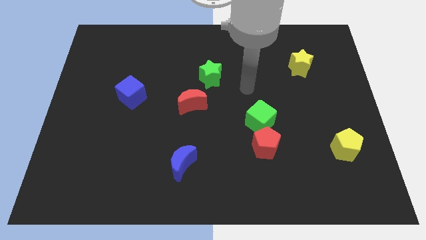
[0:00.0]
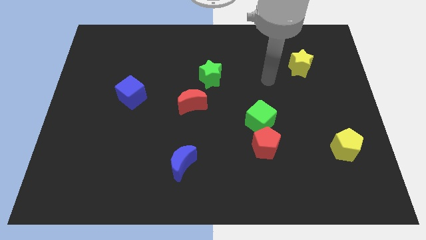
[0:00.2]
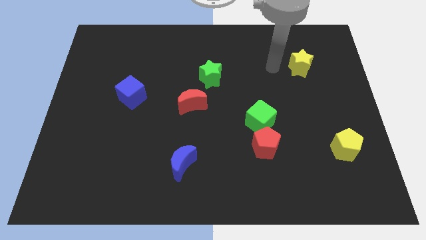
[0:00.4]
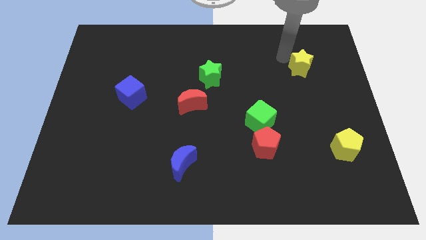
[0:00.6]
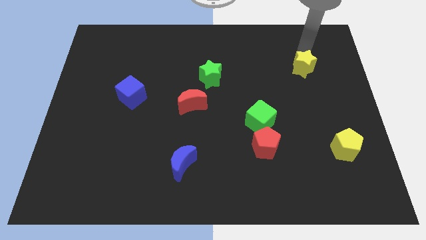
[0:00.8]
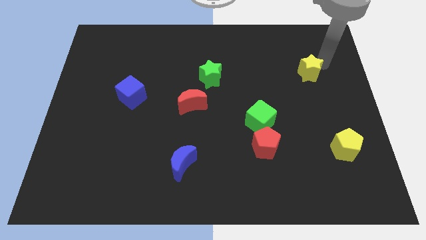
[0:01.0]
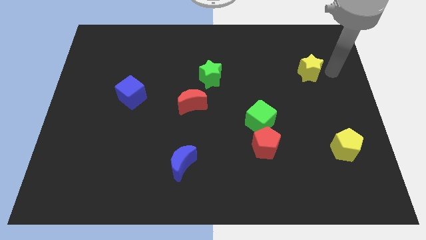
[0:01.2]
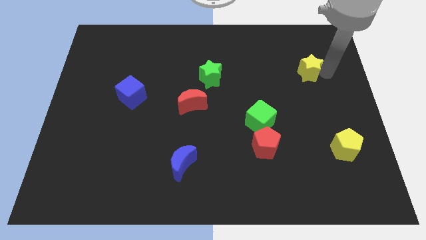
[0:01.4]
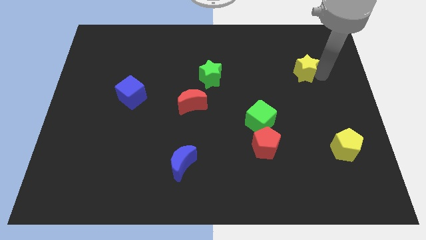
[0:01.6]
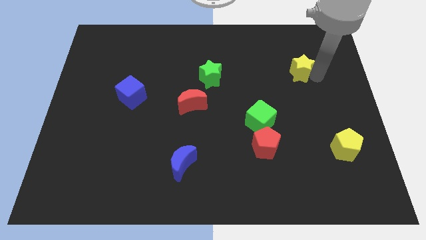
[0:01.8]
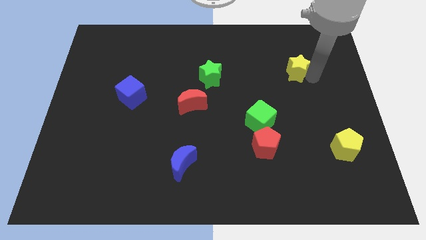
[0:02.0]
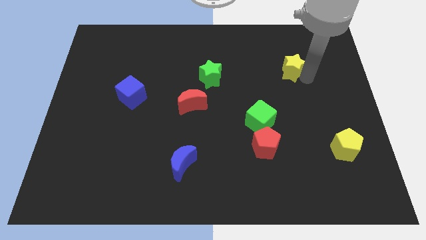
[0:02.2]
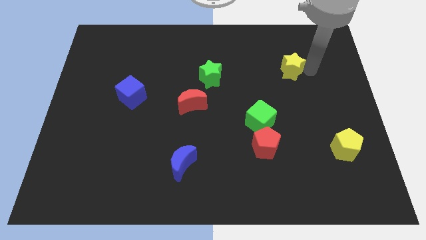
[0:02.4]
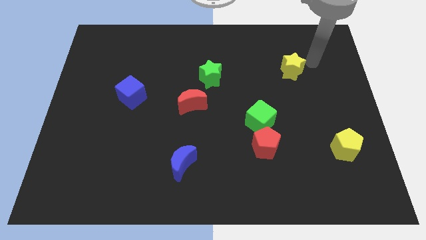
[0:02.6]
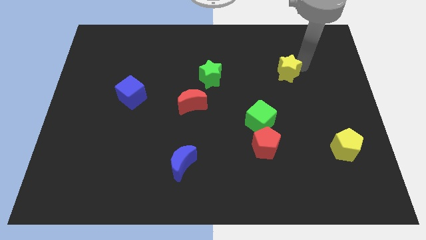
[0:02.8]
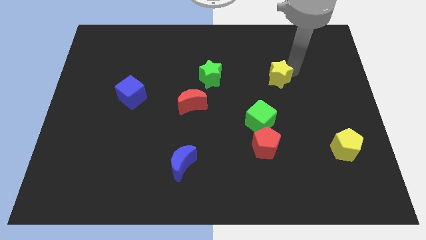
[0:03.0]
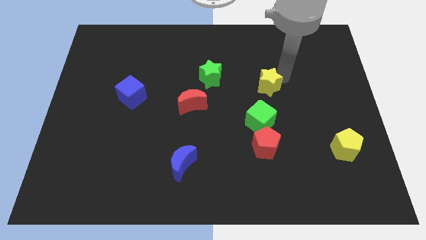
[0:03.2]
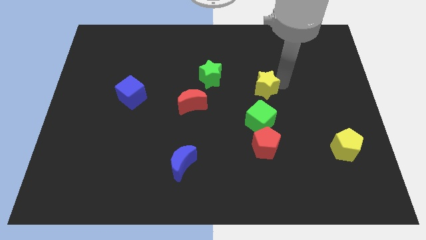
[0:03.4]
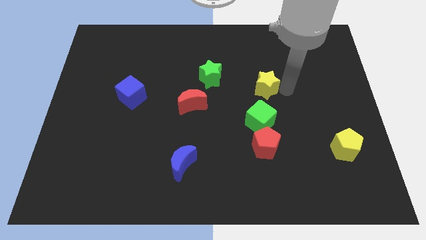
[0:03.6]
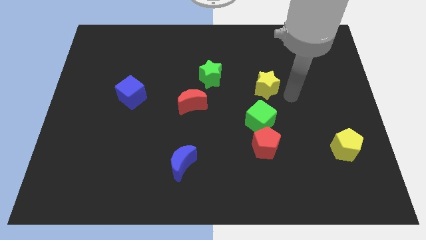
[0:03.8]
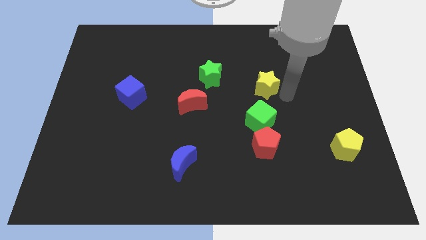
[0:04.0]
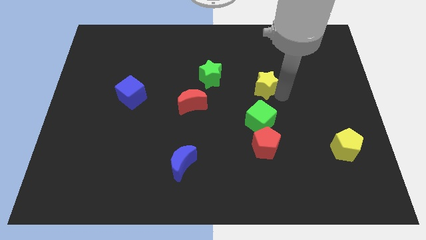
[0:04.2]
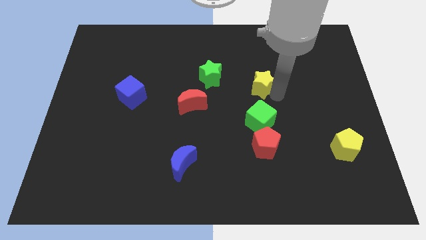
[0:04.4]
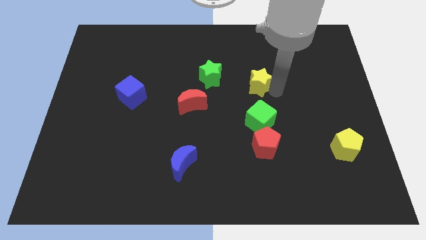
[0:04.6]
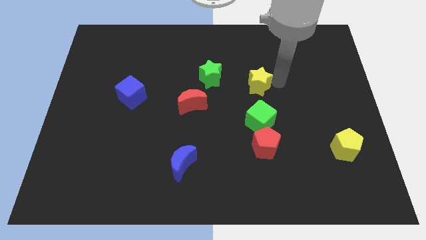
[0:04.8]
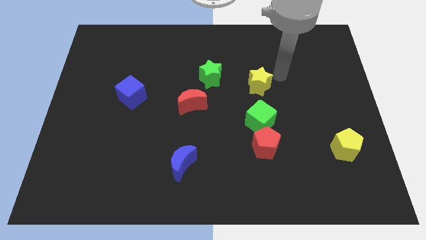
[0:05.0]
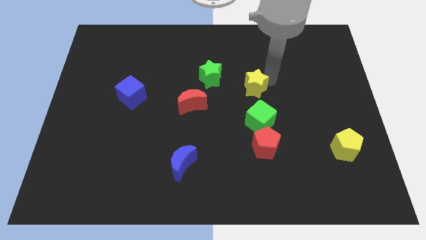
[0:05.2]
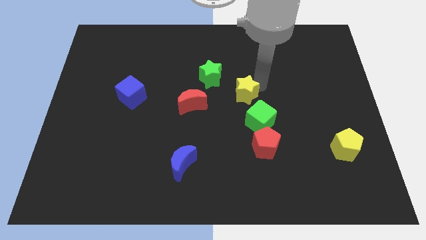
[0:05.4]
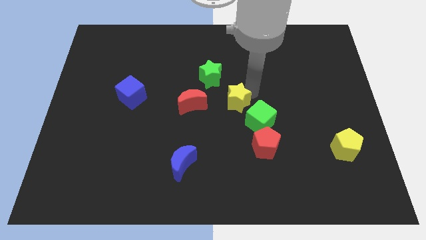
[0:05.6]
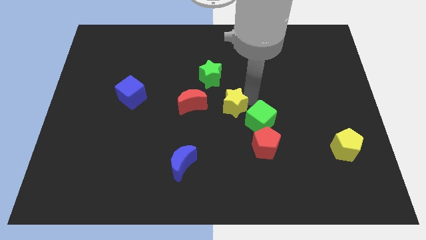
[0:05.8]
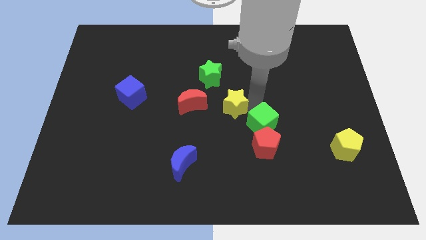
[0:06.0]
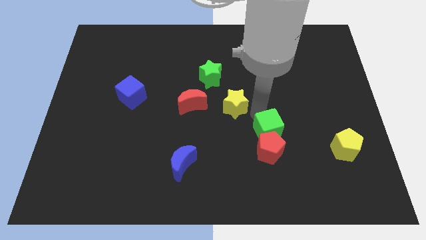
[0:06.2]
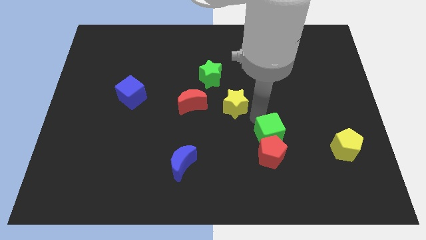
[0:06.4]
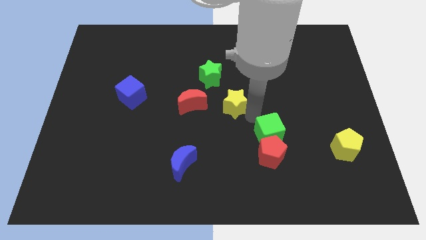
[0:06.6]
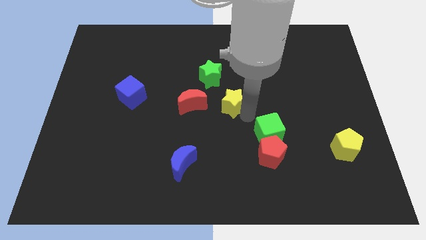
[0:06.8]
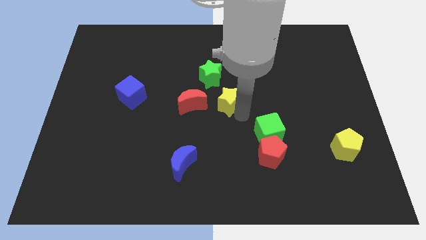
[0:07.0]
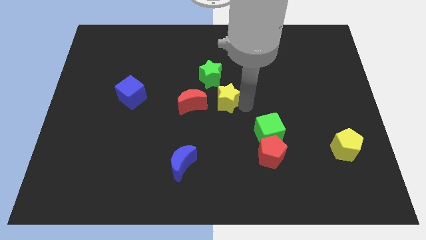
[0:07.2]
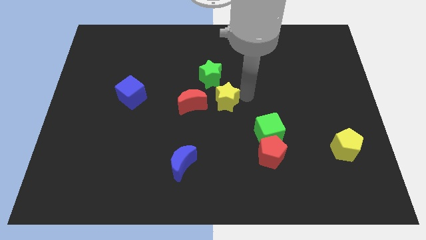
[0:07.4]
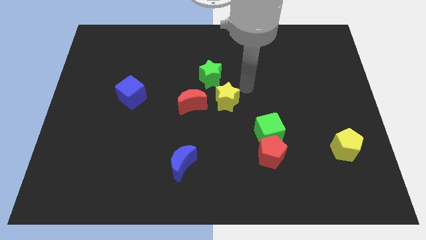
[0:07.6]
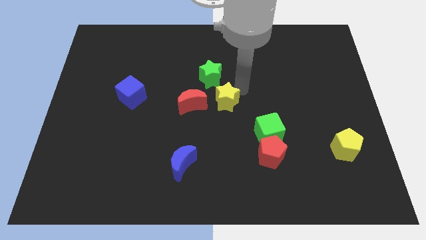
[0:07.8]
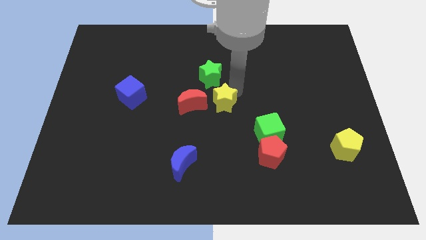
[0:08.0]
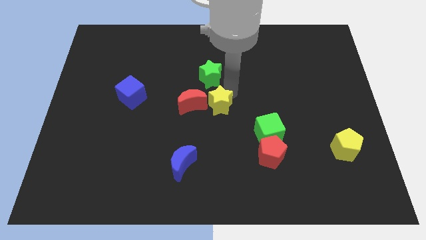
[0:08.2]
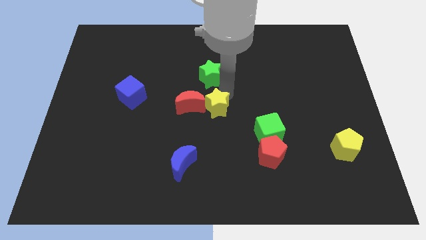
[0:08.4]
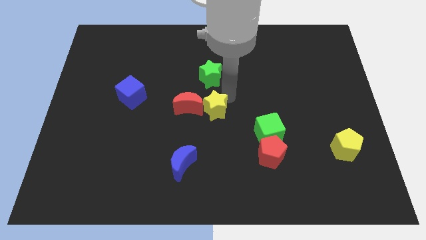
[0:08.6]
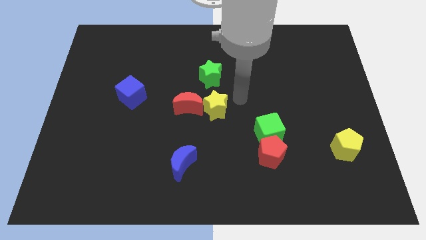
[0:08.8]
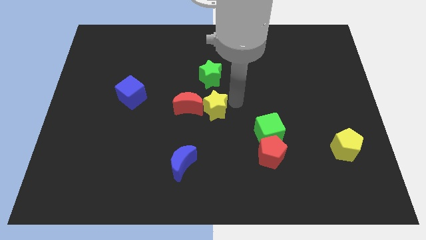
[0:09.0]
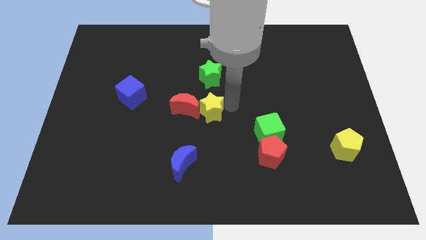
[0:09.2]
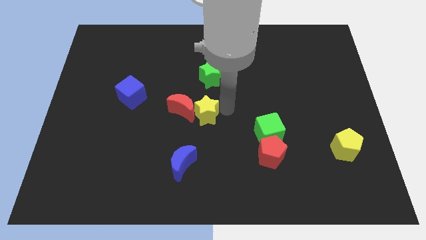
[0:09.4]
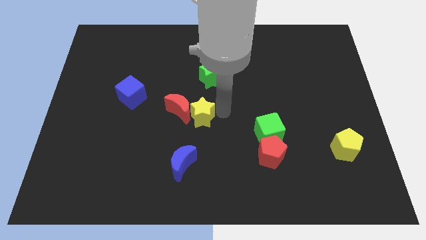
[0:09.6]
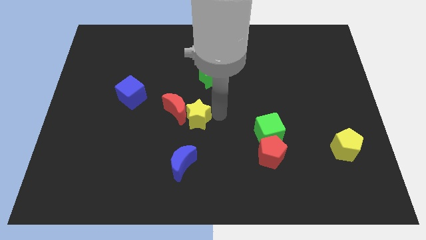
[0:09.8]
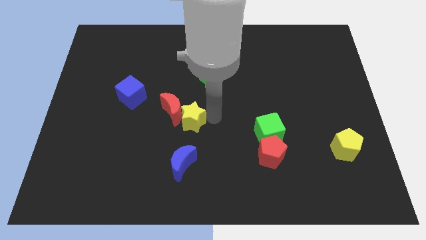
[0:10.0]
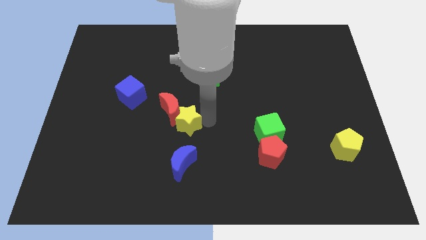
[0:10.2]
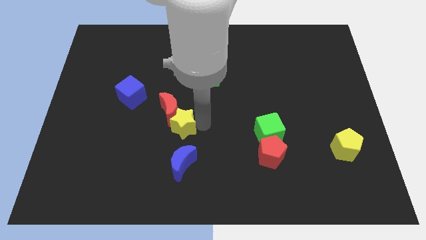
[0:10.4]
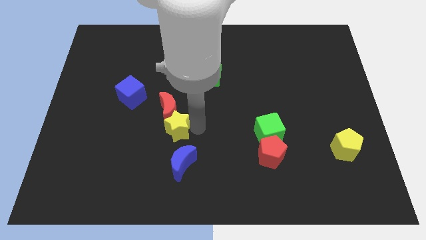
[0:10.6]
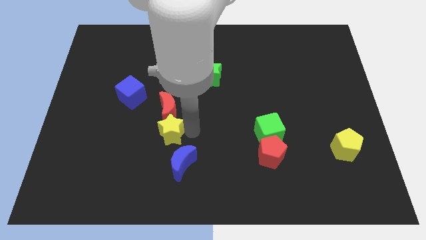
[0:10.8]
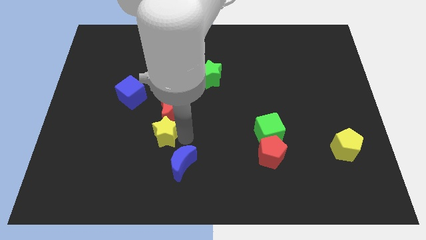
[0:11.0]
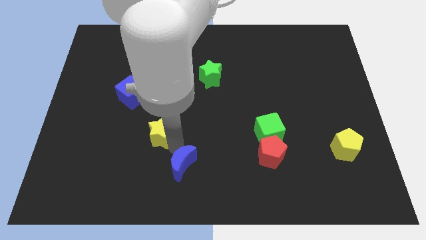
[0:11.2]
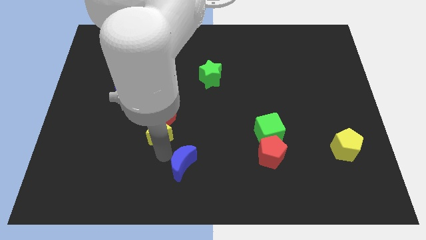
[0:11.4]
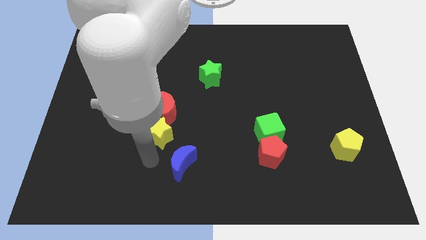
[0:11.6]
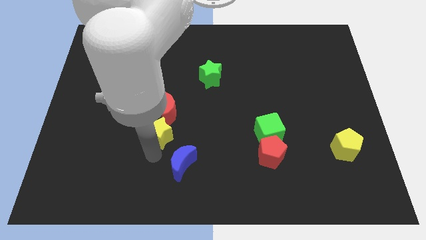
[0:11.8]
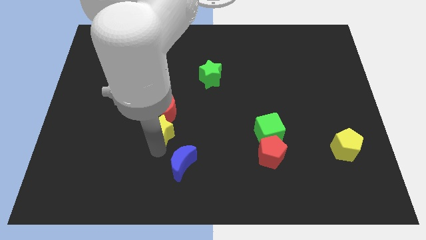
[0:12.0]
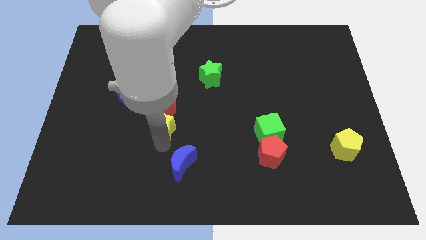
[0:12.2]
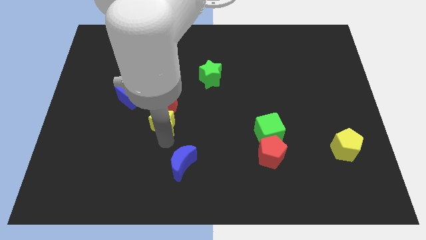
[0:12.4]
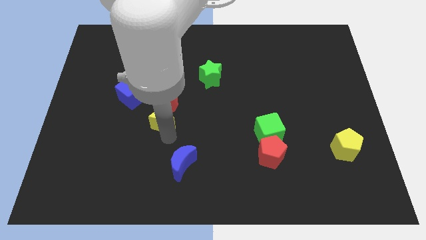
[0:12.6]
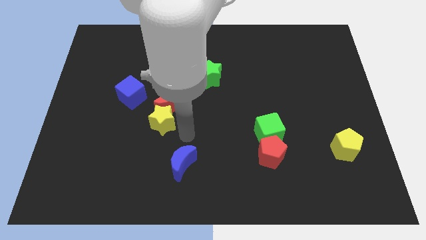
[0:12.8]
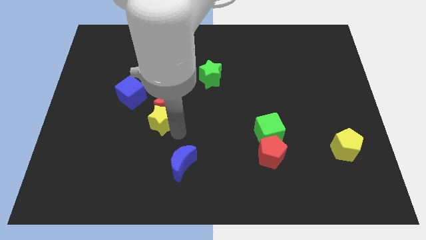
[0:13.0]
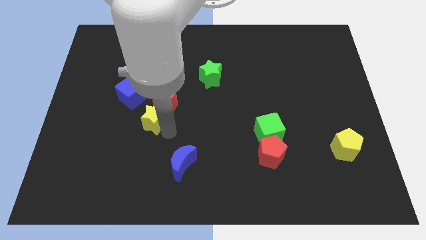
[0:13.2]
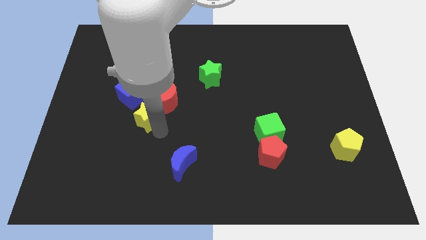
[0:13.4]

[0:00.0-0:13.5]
move the yellow star to the left side of the red moon

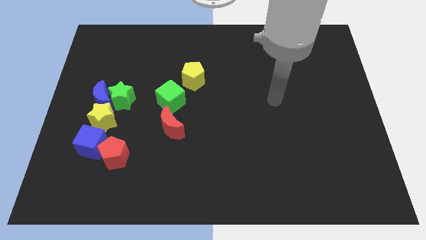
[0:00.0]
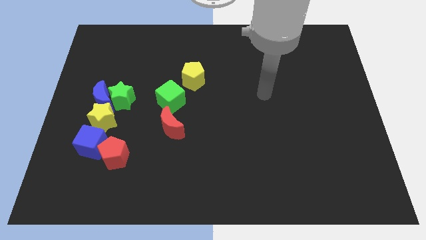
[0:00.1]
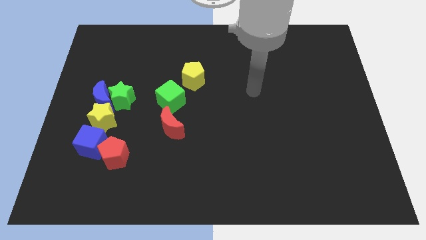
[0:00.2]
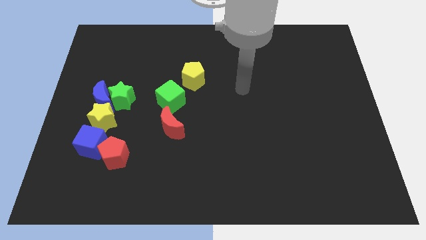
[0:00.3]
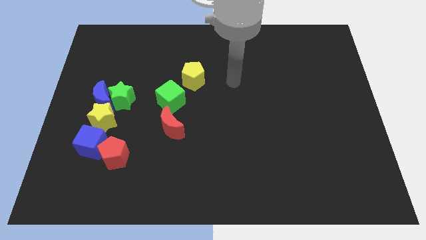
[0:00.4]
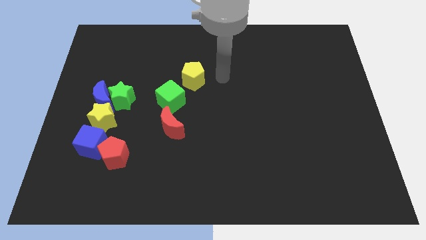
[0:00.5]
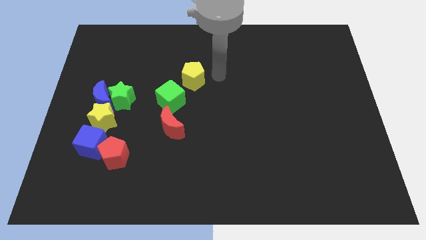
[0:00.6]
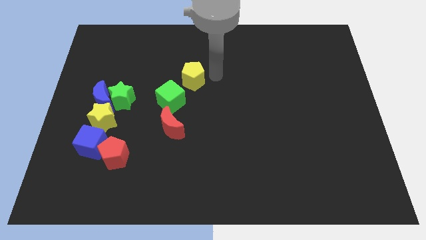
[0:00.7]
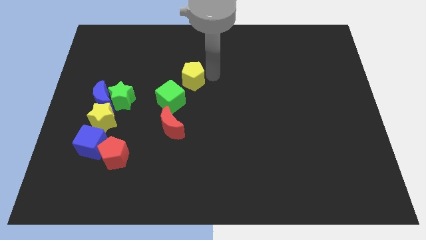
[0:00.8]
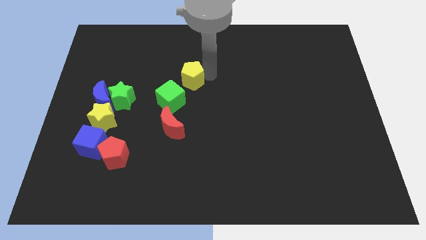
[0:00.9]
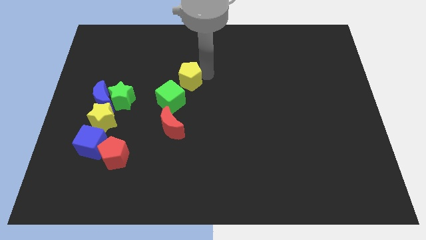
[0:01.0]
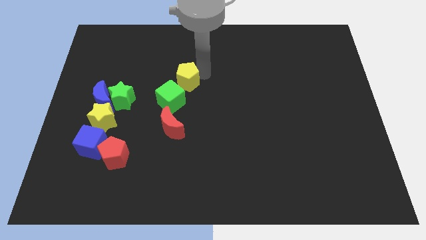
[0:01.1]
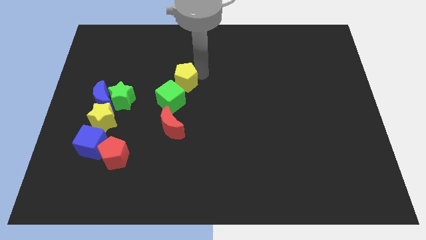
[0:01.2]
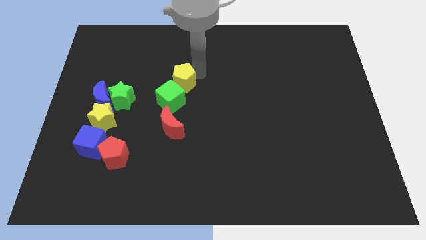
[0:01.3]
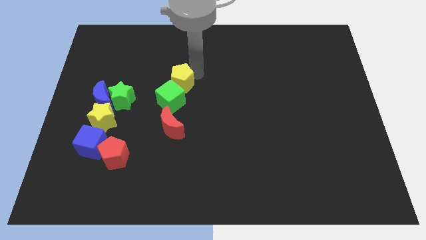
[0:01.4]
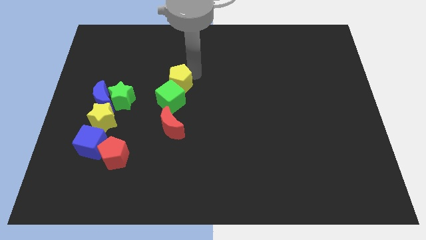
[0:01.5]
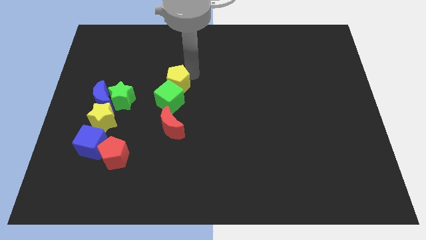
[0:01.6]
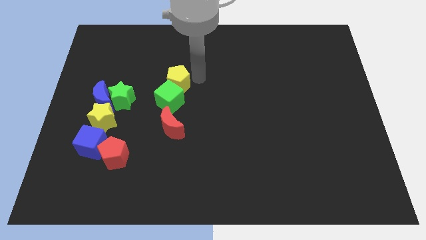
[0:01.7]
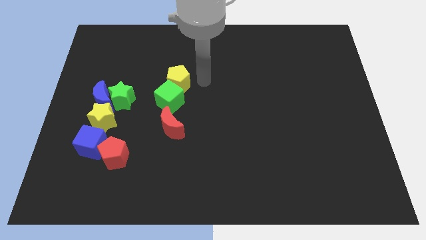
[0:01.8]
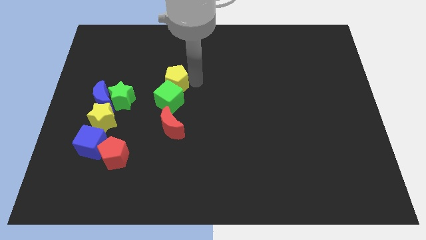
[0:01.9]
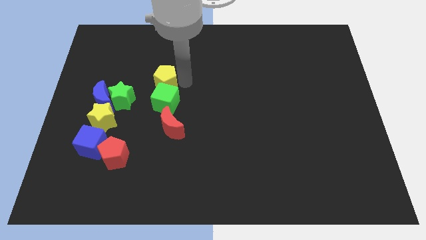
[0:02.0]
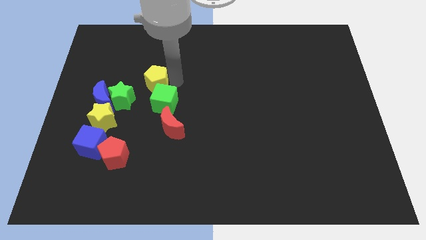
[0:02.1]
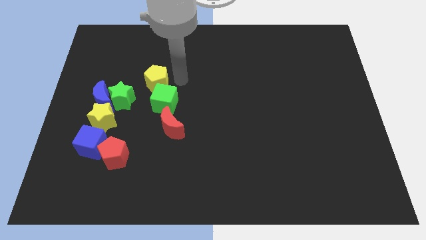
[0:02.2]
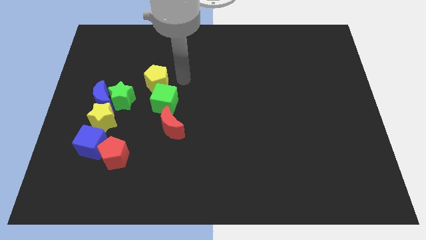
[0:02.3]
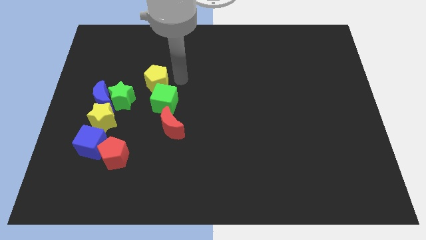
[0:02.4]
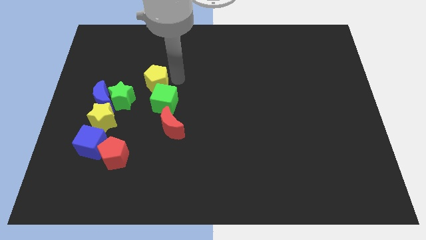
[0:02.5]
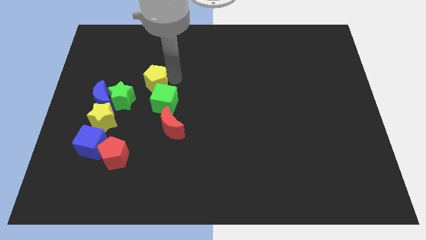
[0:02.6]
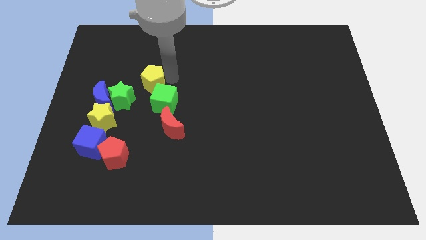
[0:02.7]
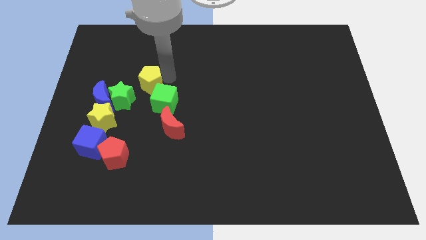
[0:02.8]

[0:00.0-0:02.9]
slide the yellow pentagon to the top right side of the blue moon
